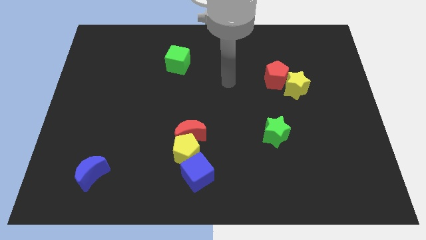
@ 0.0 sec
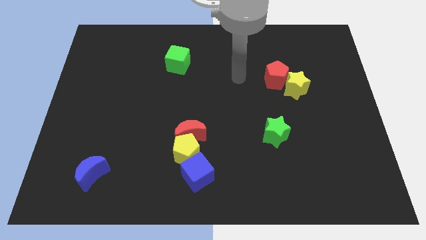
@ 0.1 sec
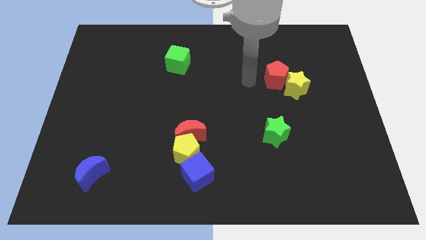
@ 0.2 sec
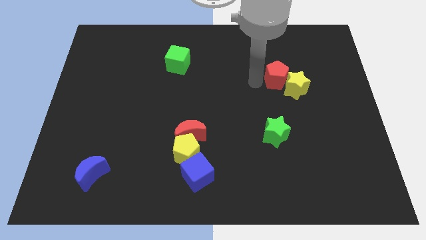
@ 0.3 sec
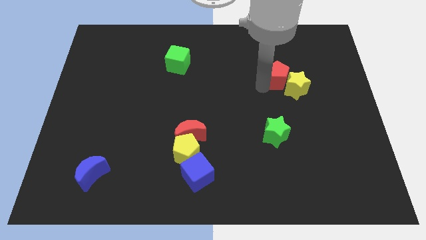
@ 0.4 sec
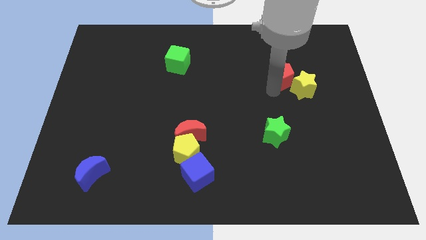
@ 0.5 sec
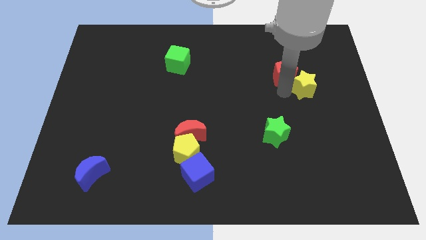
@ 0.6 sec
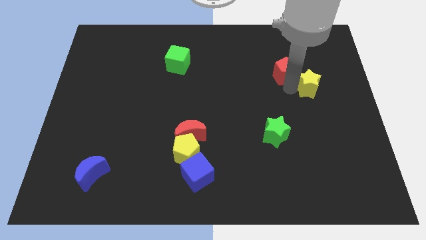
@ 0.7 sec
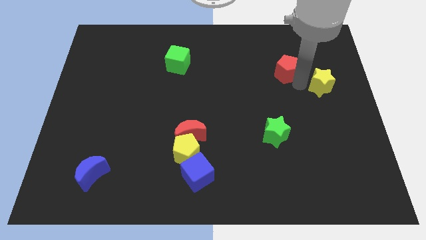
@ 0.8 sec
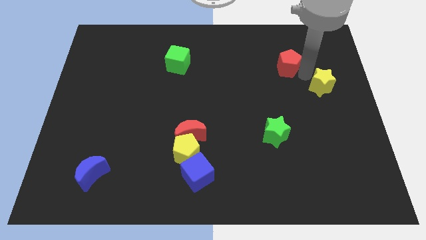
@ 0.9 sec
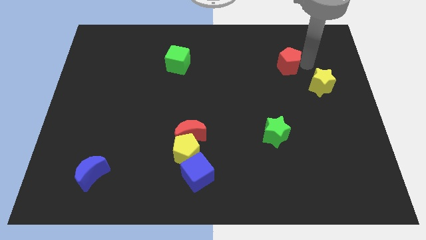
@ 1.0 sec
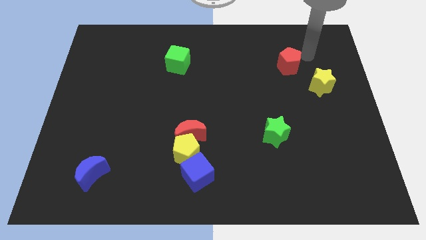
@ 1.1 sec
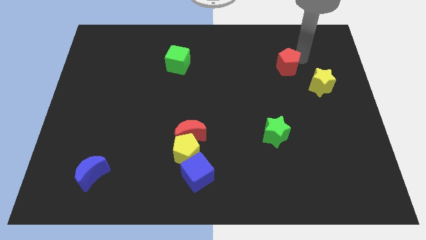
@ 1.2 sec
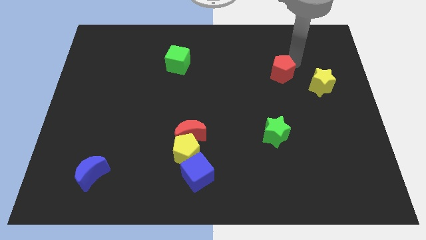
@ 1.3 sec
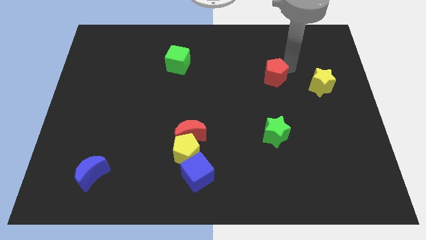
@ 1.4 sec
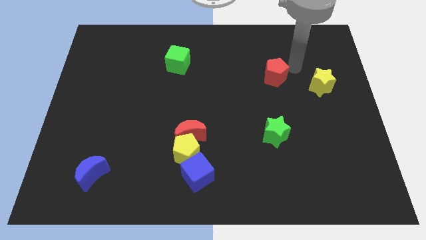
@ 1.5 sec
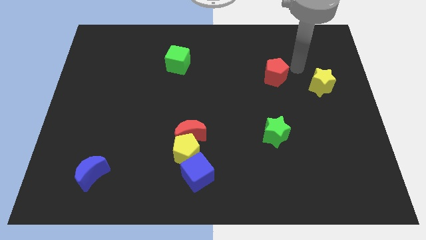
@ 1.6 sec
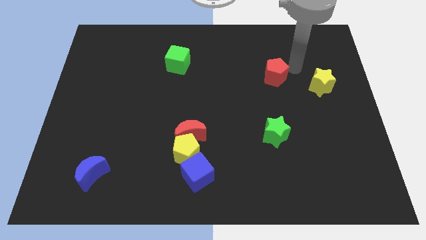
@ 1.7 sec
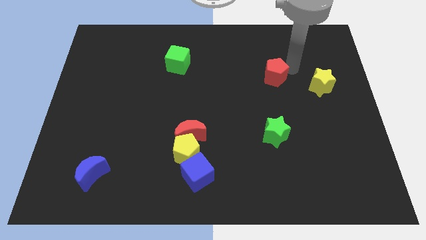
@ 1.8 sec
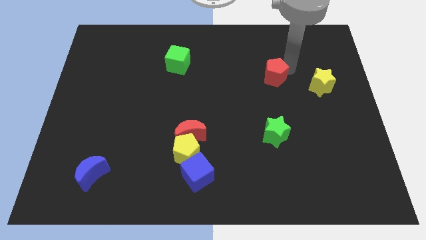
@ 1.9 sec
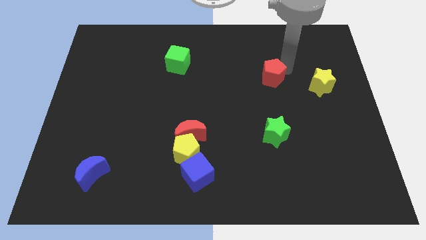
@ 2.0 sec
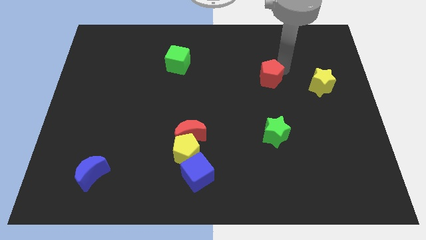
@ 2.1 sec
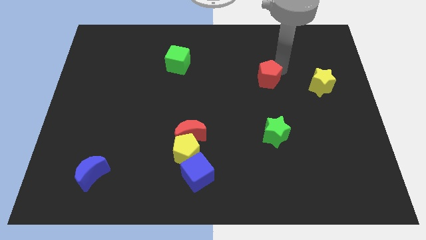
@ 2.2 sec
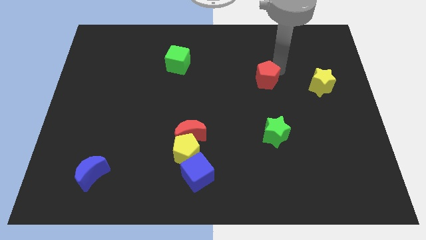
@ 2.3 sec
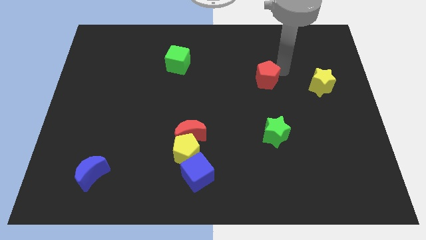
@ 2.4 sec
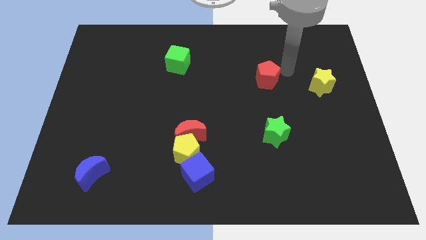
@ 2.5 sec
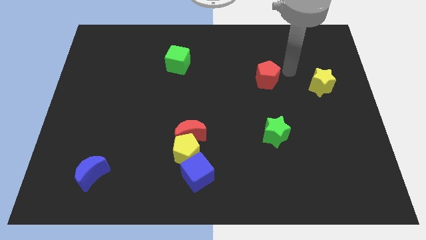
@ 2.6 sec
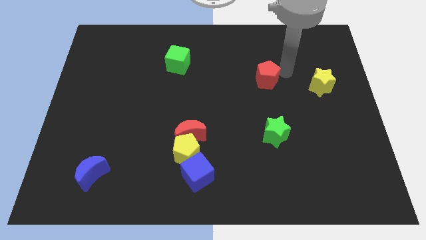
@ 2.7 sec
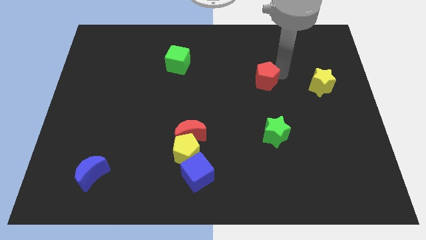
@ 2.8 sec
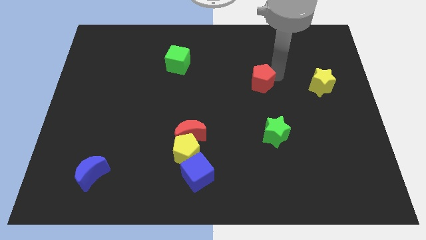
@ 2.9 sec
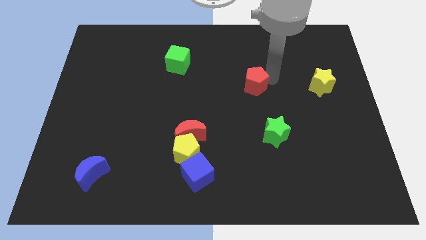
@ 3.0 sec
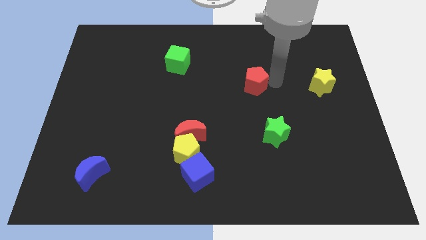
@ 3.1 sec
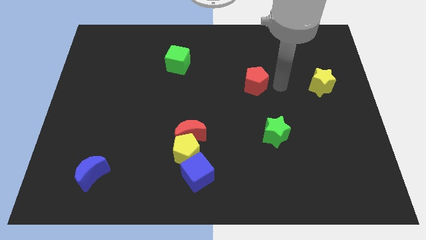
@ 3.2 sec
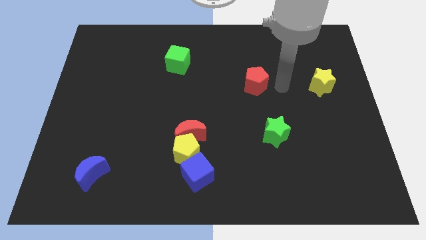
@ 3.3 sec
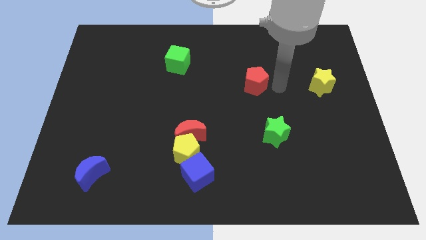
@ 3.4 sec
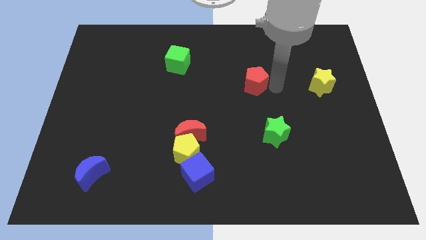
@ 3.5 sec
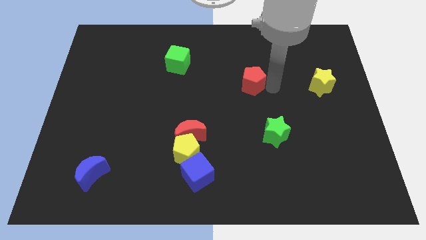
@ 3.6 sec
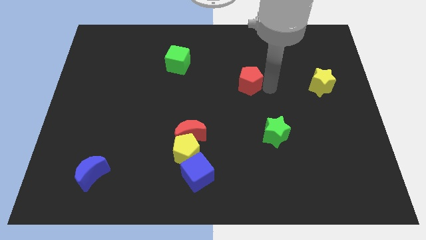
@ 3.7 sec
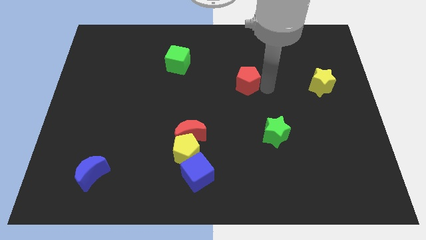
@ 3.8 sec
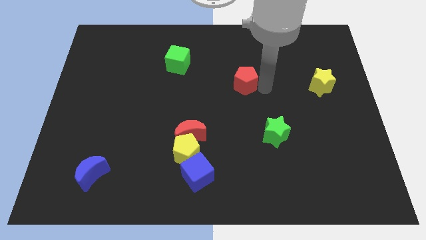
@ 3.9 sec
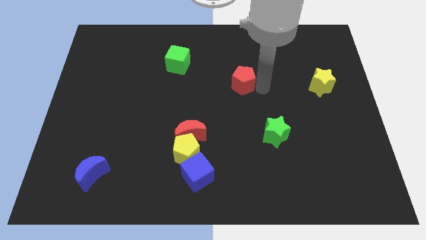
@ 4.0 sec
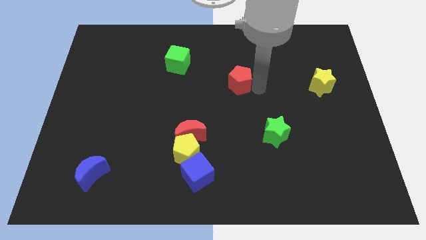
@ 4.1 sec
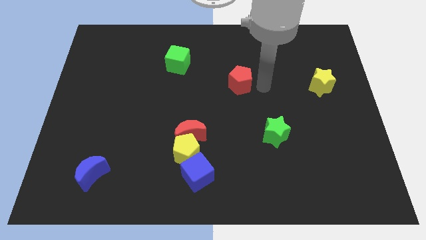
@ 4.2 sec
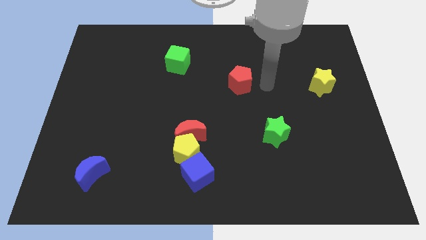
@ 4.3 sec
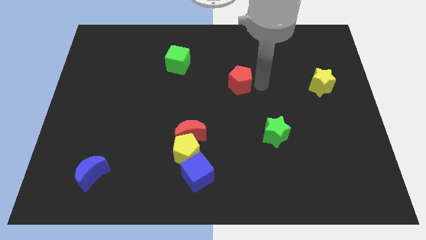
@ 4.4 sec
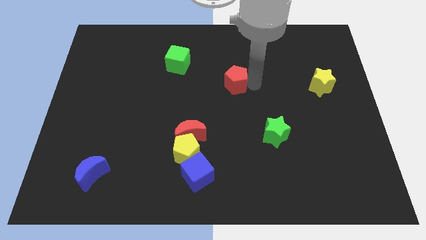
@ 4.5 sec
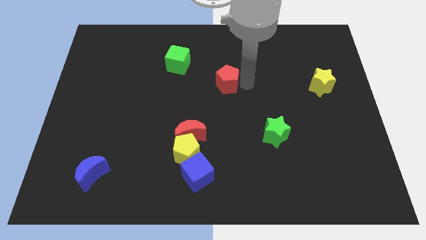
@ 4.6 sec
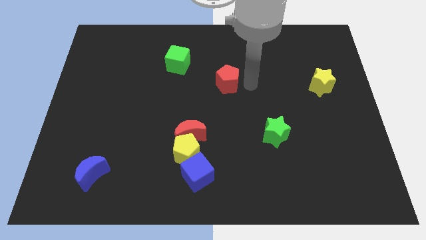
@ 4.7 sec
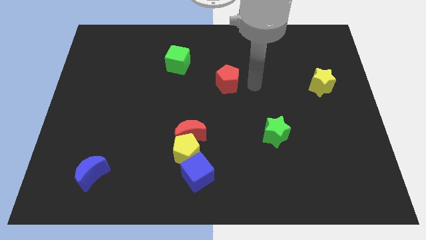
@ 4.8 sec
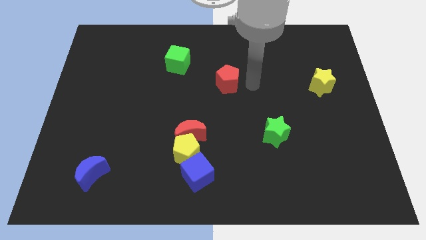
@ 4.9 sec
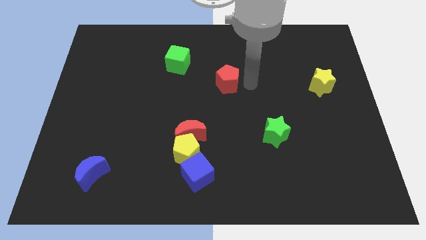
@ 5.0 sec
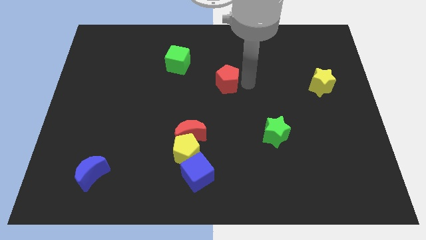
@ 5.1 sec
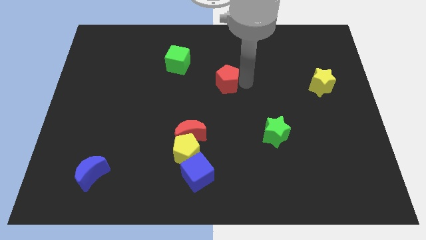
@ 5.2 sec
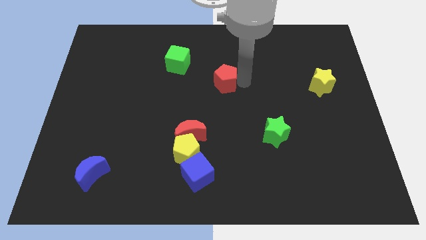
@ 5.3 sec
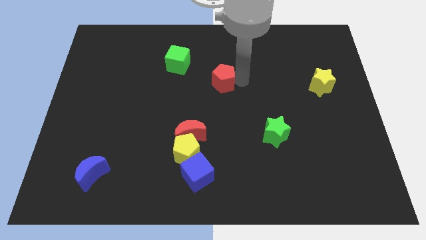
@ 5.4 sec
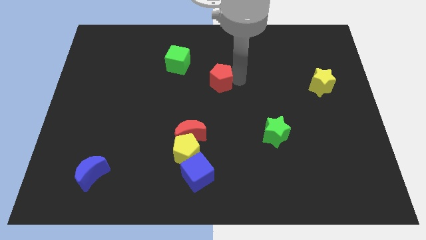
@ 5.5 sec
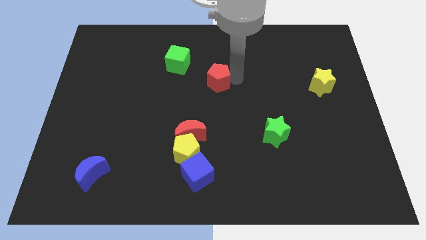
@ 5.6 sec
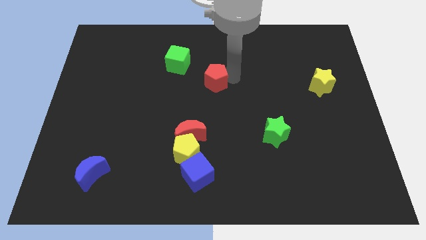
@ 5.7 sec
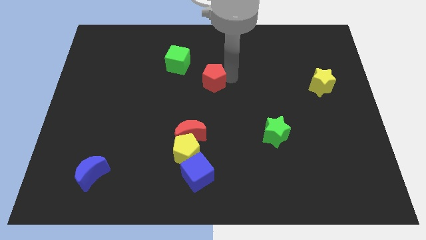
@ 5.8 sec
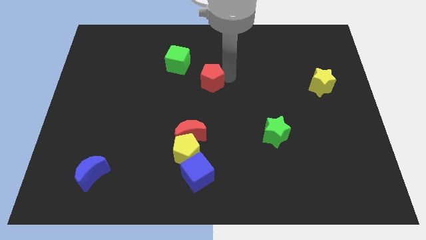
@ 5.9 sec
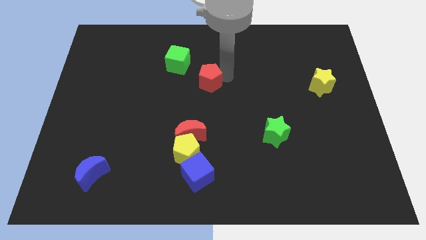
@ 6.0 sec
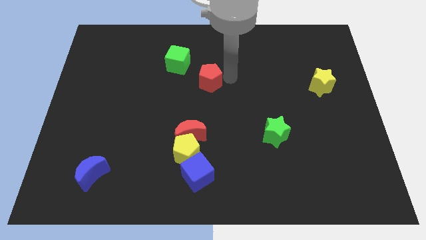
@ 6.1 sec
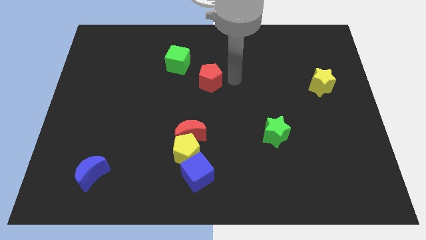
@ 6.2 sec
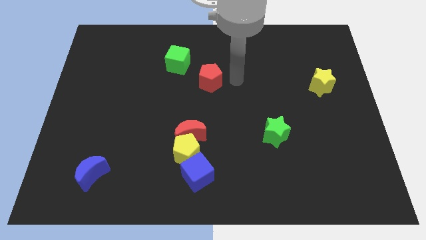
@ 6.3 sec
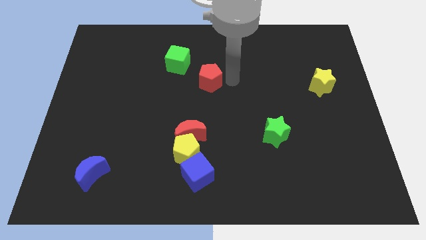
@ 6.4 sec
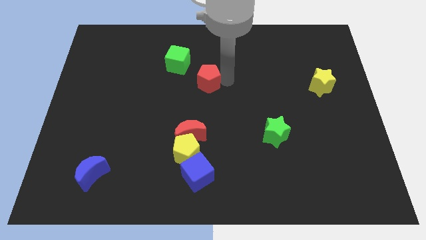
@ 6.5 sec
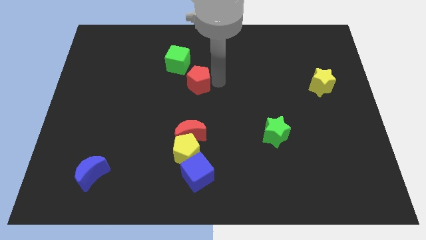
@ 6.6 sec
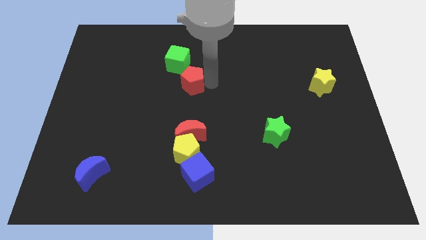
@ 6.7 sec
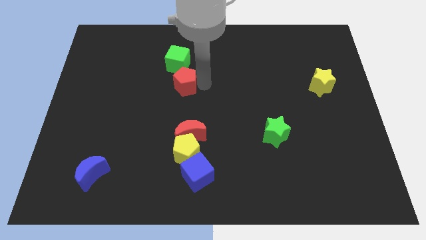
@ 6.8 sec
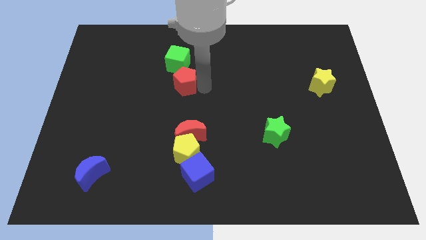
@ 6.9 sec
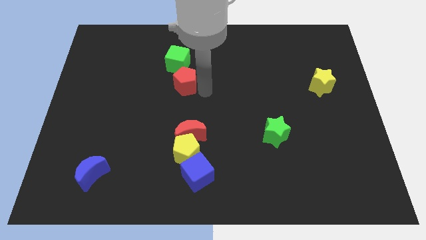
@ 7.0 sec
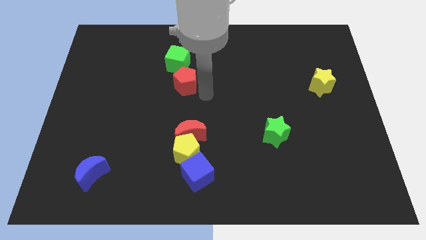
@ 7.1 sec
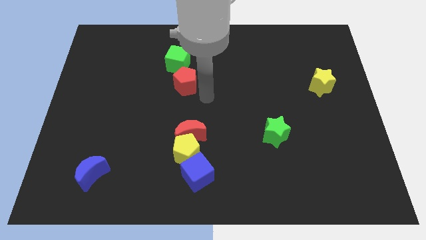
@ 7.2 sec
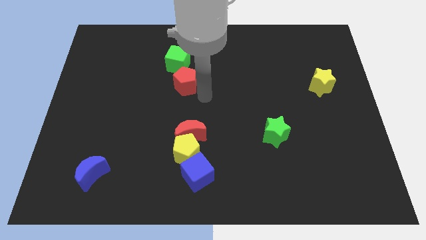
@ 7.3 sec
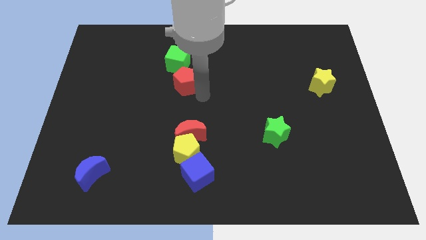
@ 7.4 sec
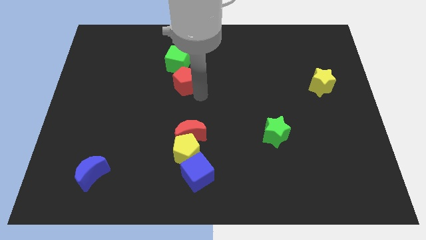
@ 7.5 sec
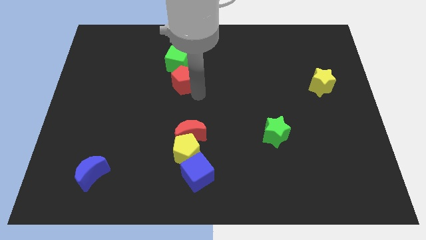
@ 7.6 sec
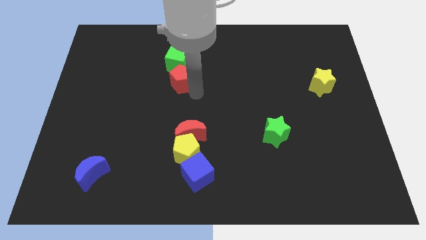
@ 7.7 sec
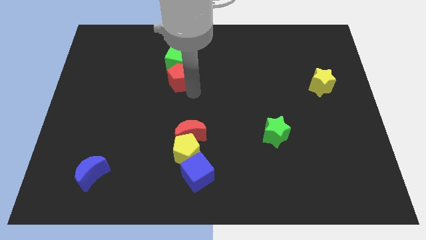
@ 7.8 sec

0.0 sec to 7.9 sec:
put the red pentagon diagonally down and to the left of the green cube
